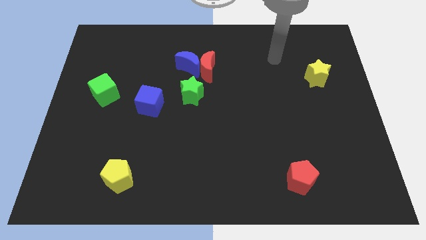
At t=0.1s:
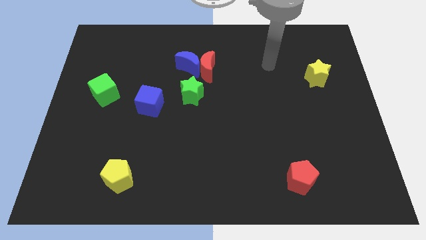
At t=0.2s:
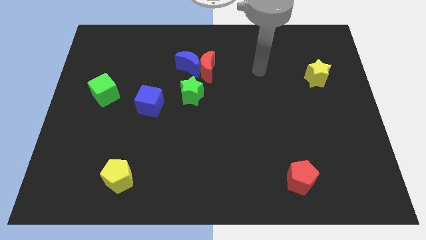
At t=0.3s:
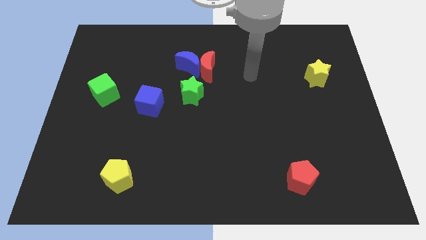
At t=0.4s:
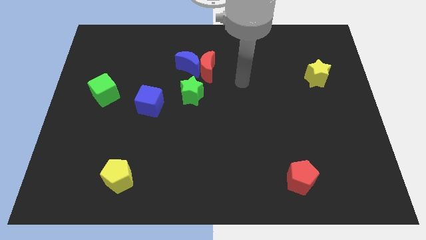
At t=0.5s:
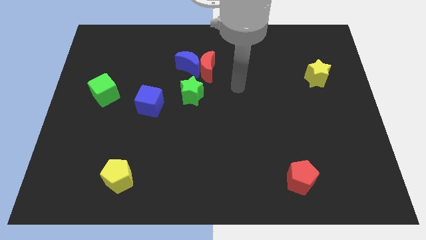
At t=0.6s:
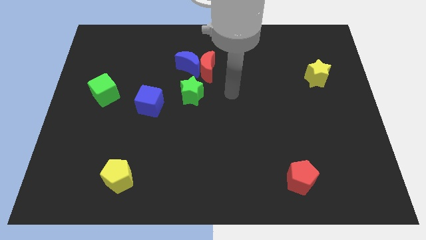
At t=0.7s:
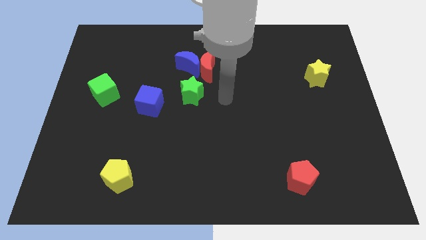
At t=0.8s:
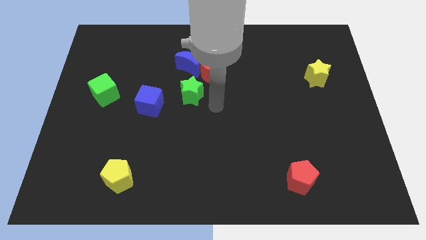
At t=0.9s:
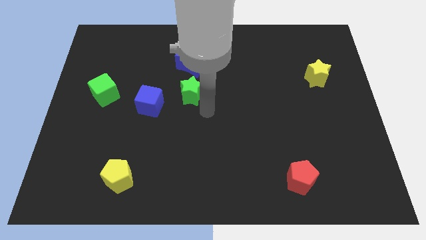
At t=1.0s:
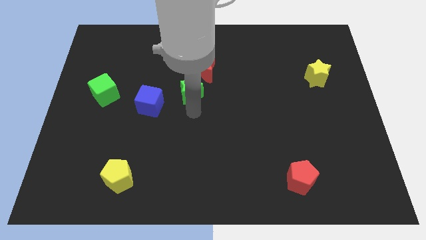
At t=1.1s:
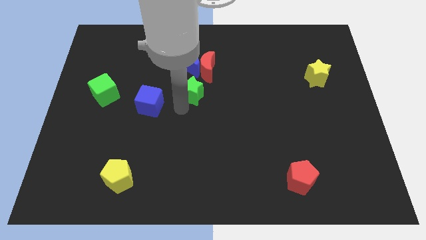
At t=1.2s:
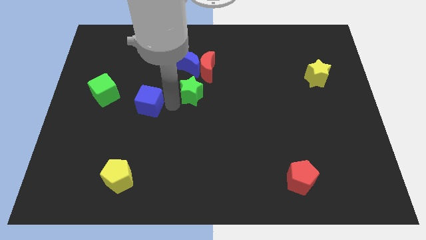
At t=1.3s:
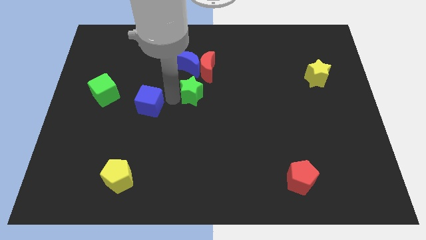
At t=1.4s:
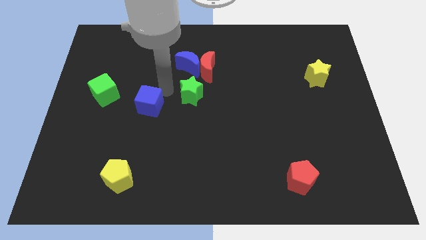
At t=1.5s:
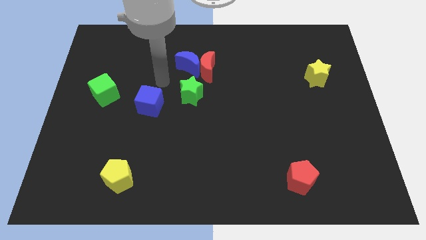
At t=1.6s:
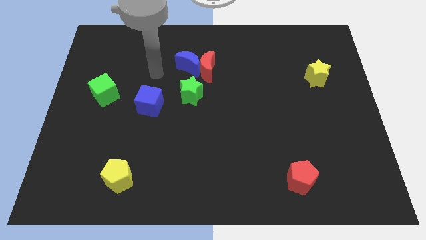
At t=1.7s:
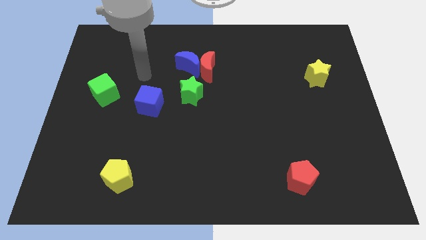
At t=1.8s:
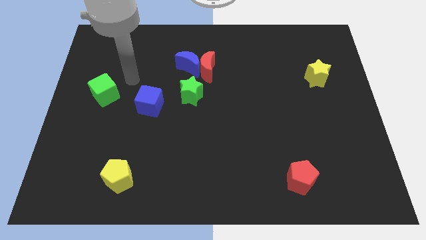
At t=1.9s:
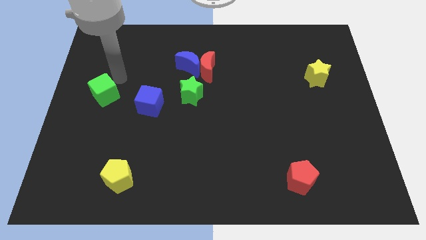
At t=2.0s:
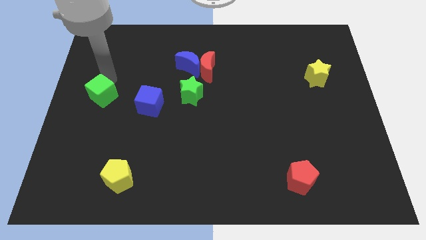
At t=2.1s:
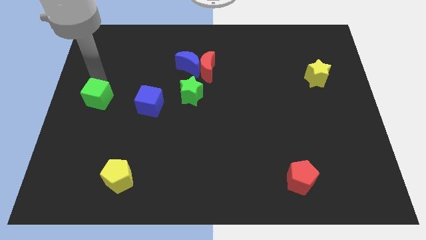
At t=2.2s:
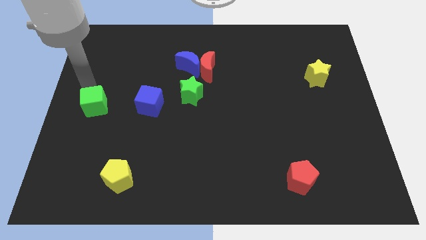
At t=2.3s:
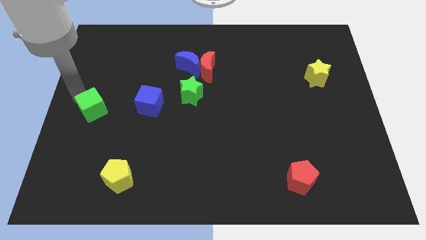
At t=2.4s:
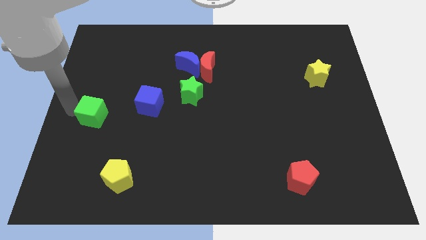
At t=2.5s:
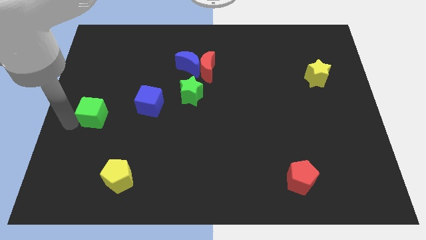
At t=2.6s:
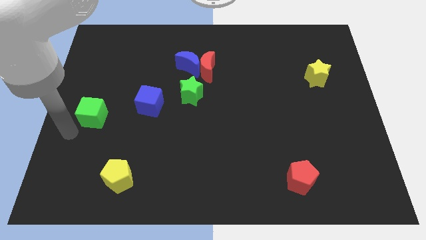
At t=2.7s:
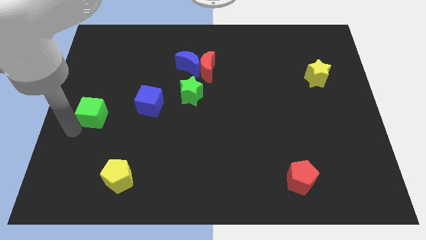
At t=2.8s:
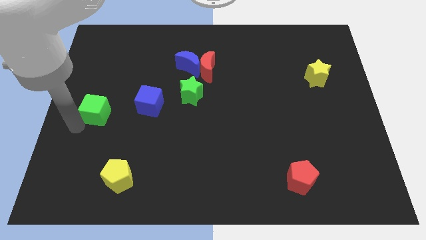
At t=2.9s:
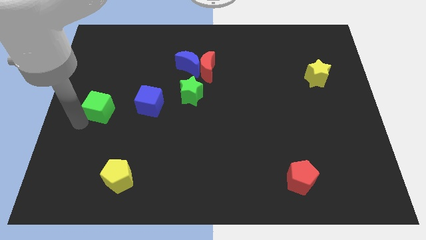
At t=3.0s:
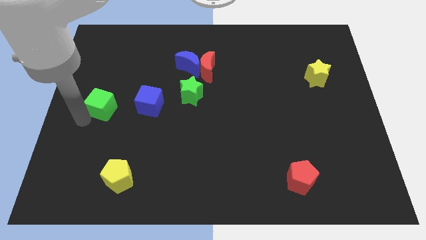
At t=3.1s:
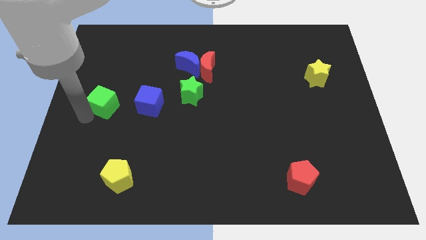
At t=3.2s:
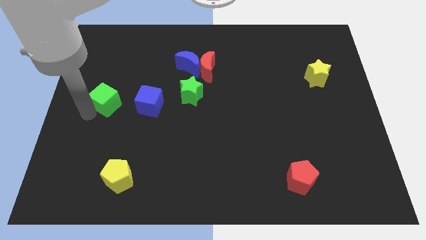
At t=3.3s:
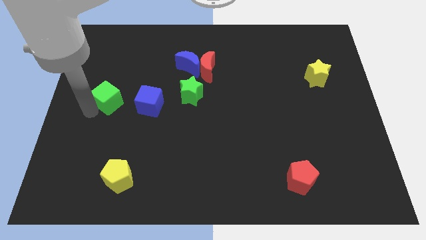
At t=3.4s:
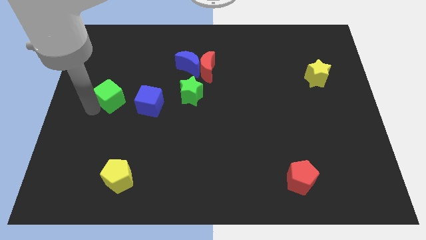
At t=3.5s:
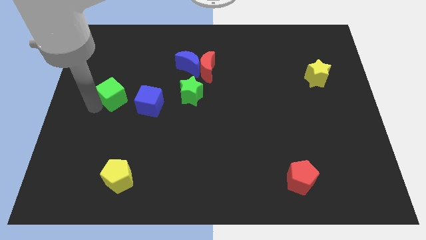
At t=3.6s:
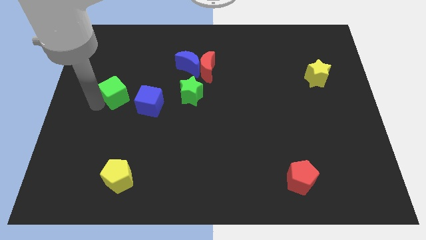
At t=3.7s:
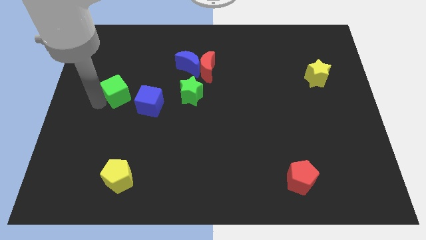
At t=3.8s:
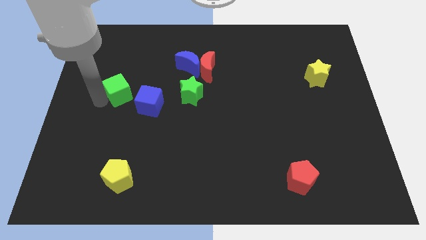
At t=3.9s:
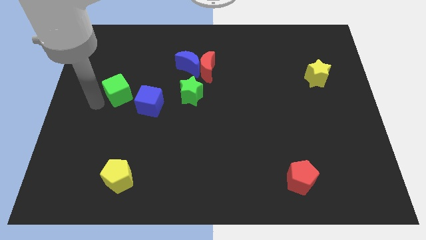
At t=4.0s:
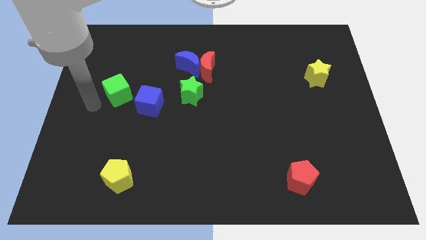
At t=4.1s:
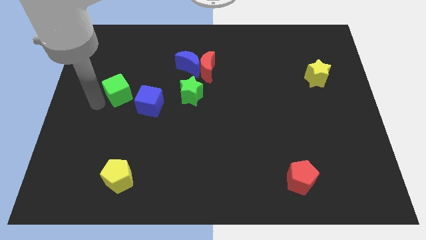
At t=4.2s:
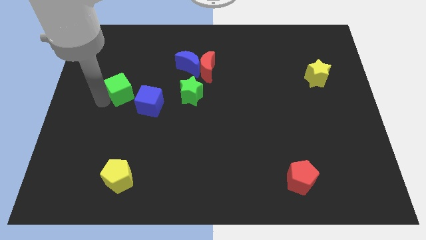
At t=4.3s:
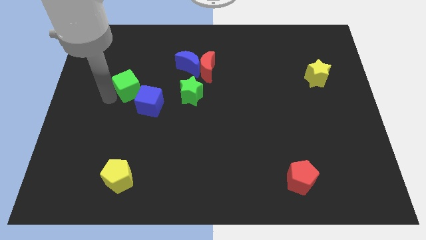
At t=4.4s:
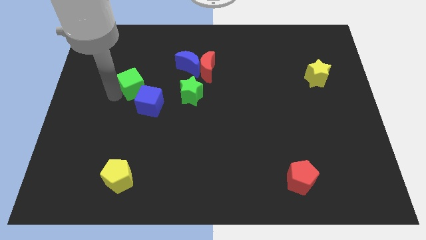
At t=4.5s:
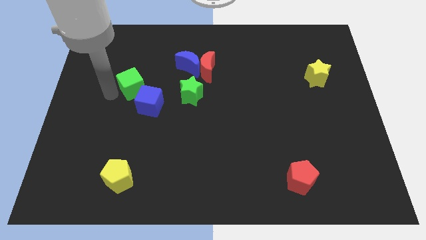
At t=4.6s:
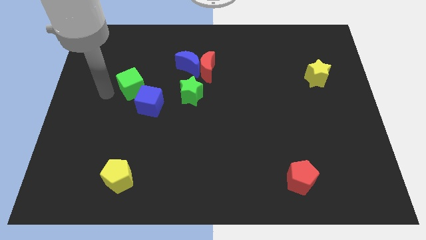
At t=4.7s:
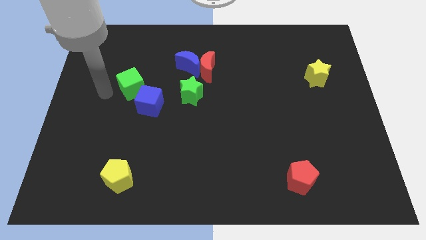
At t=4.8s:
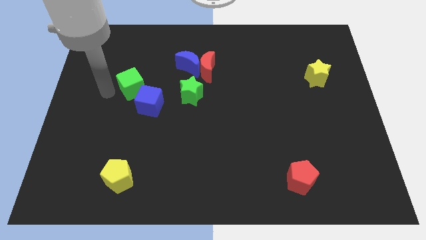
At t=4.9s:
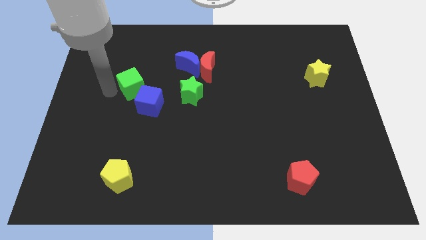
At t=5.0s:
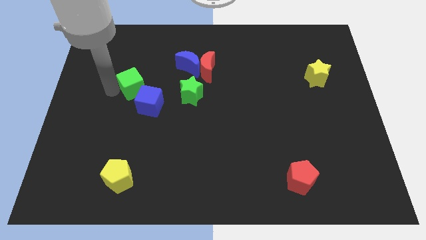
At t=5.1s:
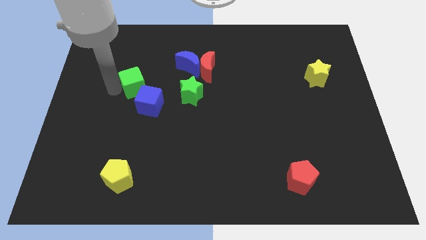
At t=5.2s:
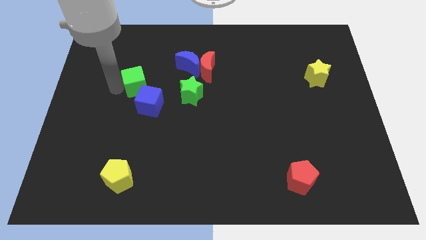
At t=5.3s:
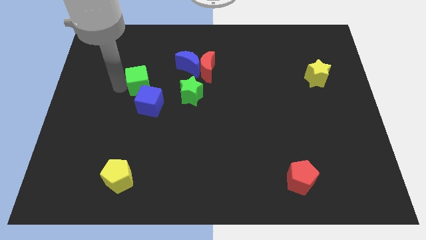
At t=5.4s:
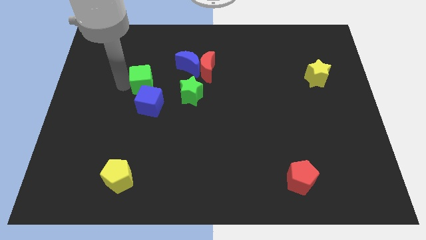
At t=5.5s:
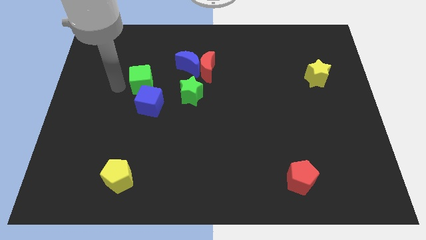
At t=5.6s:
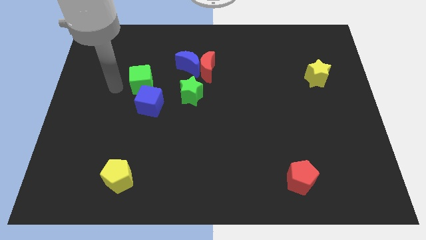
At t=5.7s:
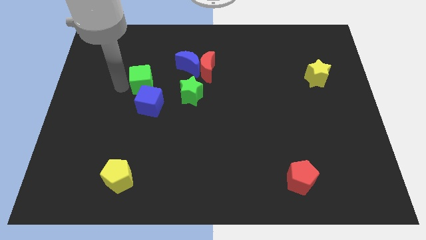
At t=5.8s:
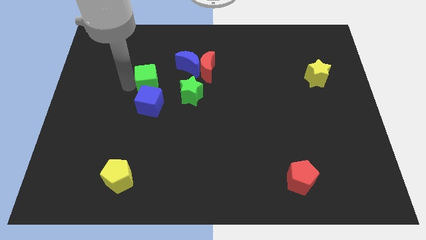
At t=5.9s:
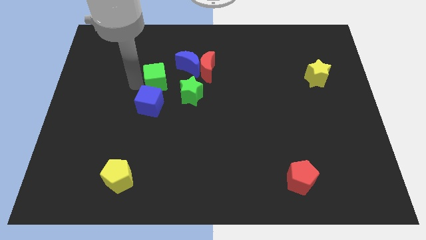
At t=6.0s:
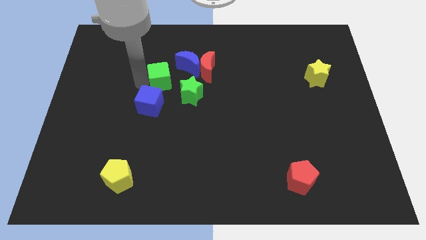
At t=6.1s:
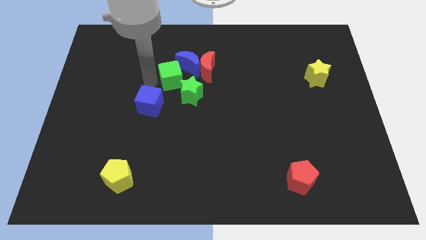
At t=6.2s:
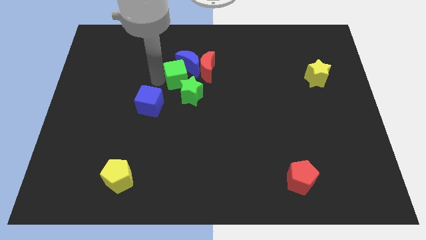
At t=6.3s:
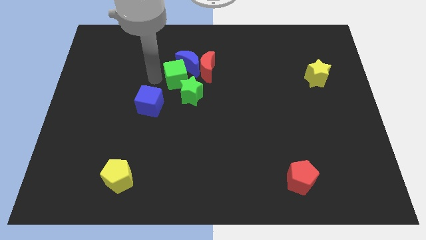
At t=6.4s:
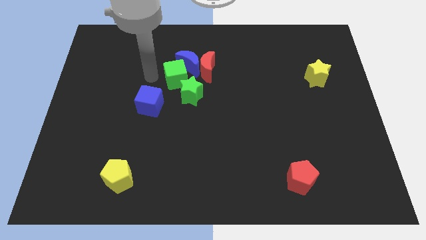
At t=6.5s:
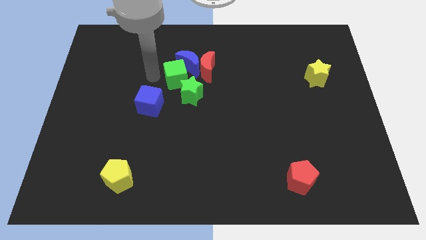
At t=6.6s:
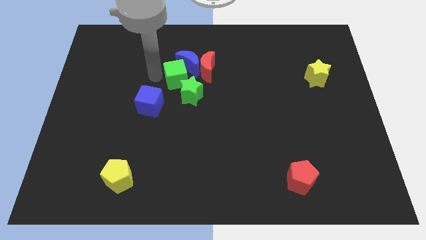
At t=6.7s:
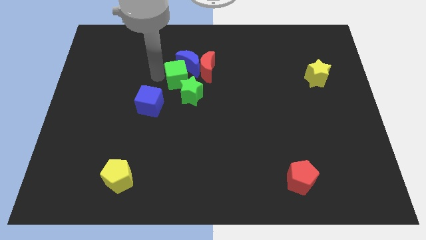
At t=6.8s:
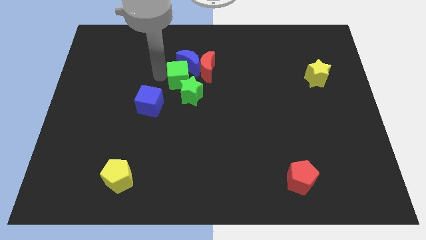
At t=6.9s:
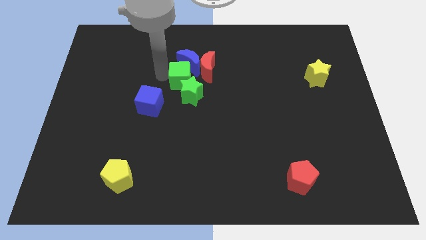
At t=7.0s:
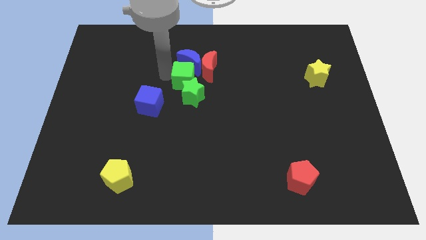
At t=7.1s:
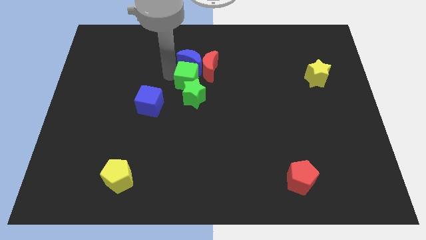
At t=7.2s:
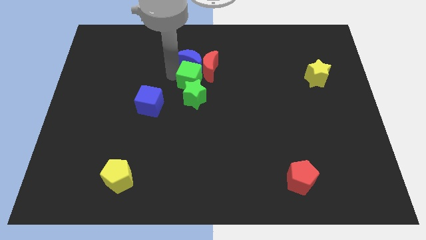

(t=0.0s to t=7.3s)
slide the green cube right

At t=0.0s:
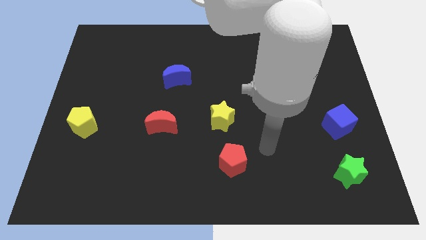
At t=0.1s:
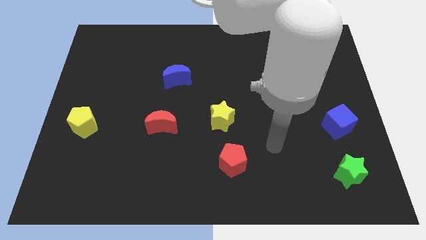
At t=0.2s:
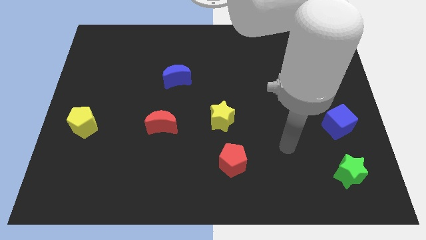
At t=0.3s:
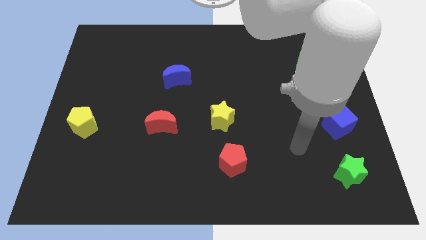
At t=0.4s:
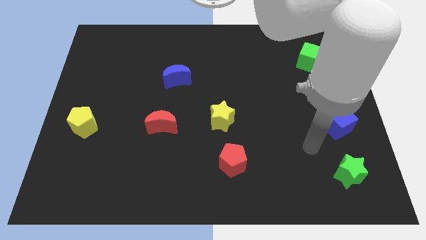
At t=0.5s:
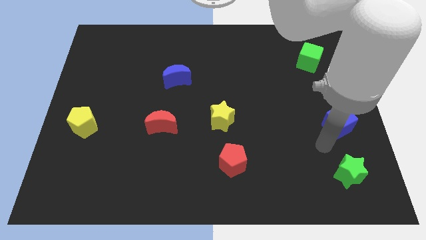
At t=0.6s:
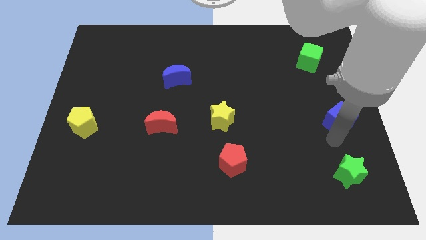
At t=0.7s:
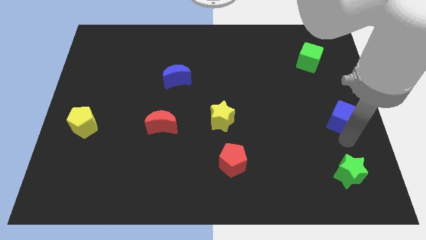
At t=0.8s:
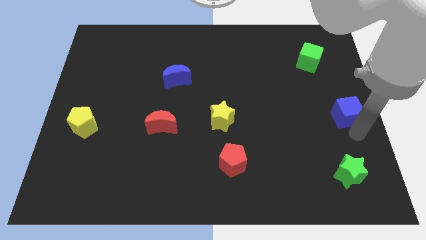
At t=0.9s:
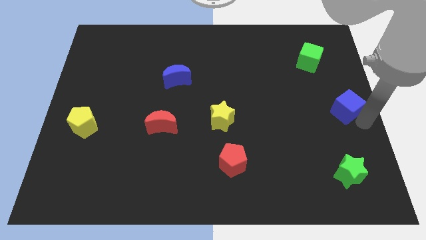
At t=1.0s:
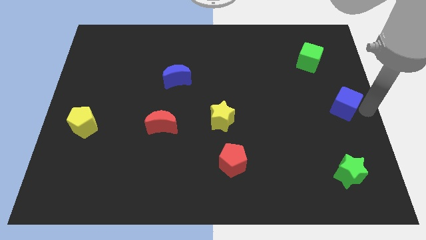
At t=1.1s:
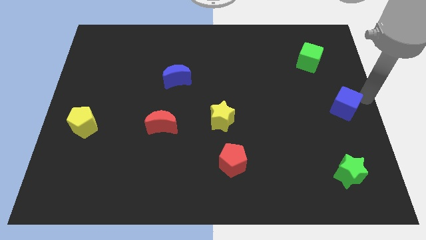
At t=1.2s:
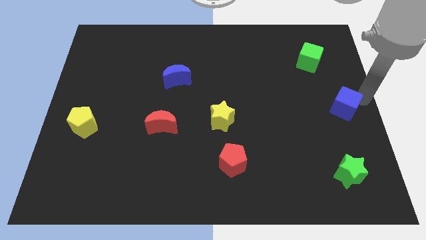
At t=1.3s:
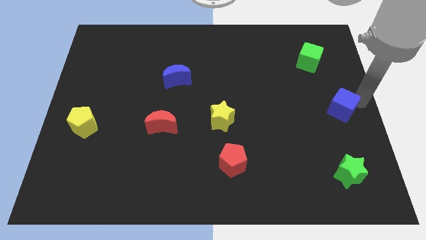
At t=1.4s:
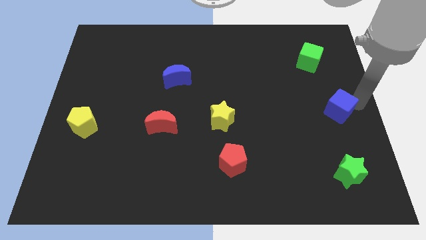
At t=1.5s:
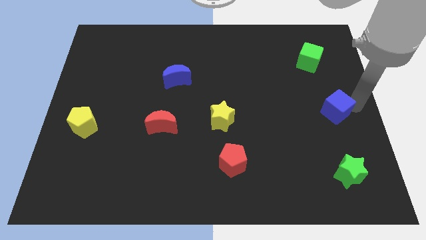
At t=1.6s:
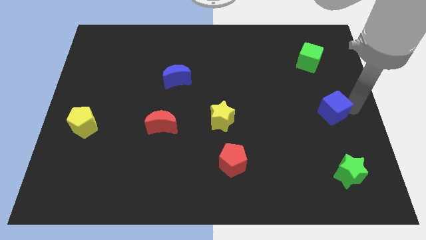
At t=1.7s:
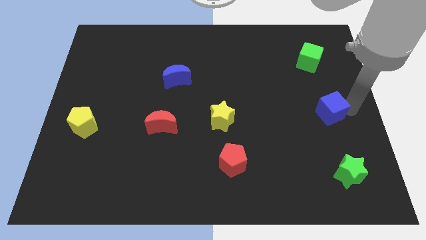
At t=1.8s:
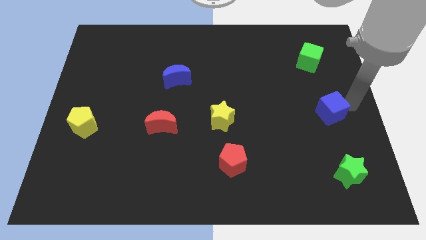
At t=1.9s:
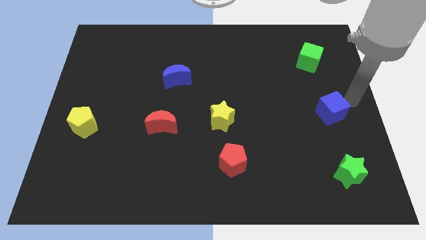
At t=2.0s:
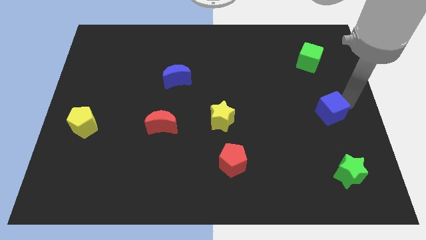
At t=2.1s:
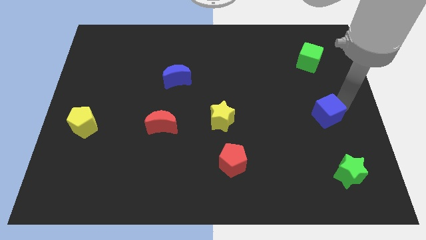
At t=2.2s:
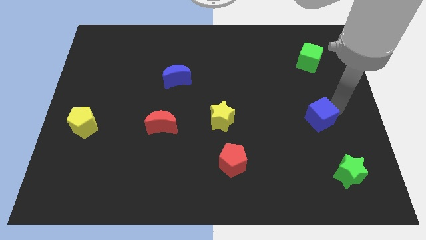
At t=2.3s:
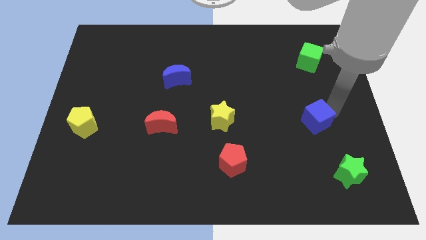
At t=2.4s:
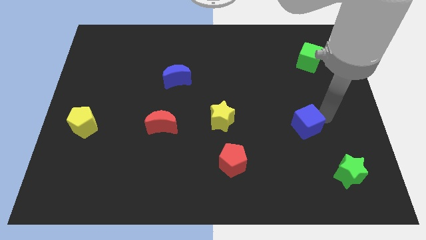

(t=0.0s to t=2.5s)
push the blue cube a bit left
